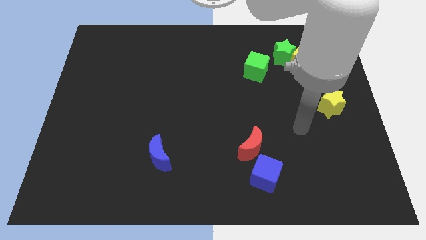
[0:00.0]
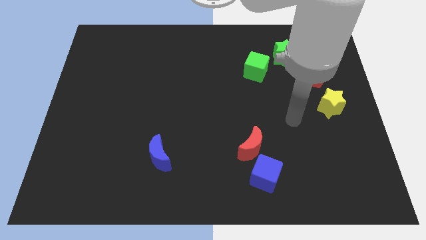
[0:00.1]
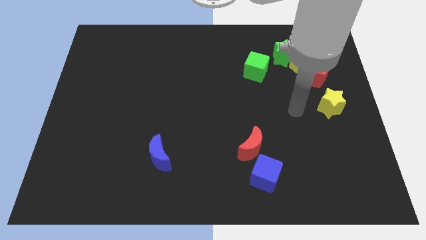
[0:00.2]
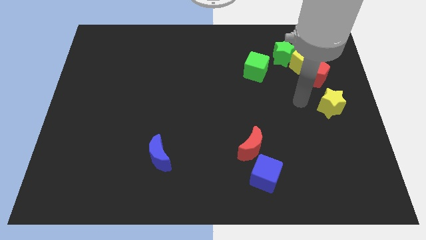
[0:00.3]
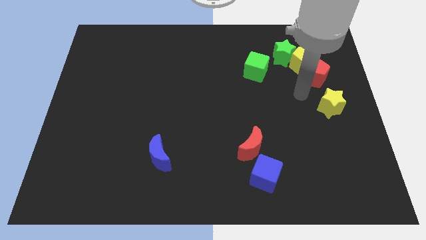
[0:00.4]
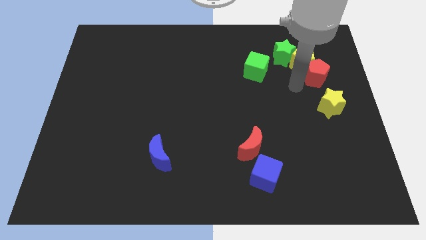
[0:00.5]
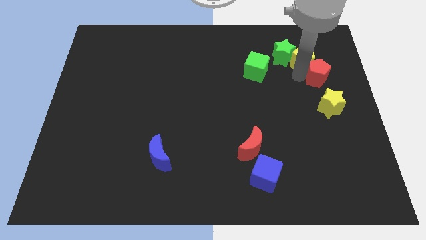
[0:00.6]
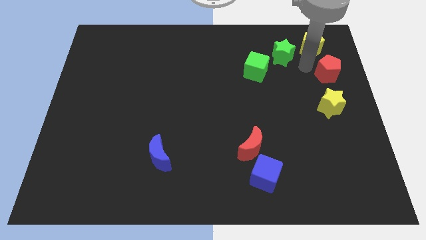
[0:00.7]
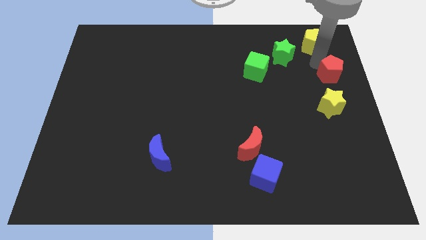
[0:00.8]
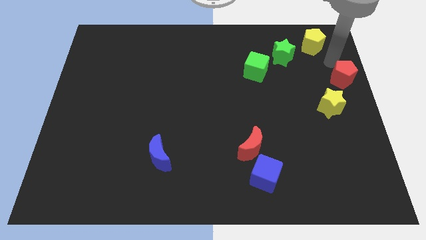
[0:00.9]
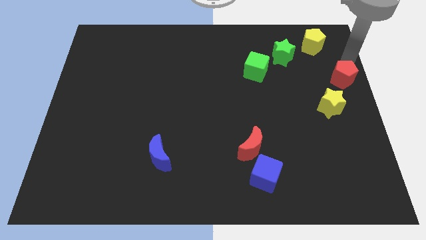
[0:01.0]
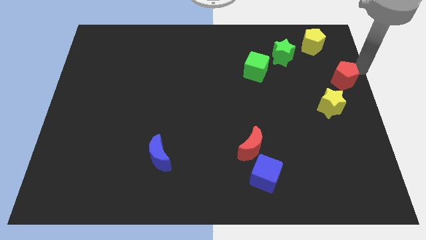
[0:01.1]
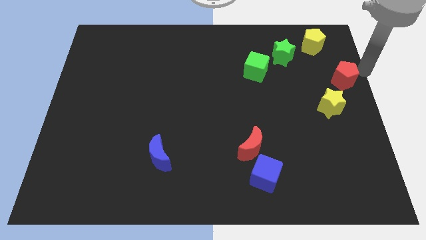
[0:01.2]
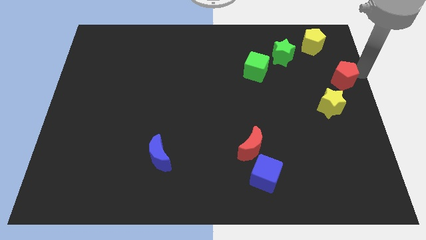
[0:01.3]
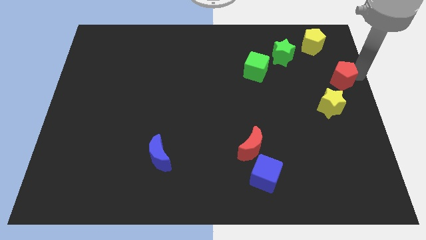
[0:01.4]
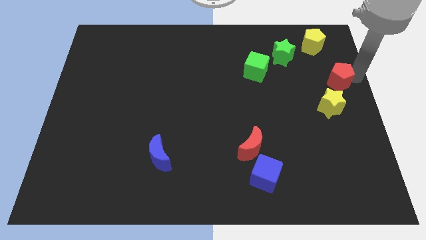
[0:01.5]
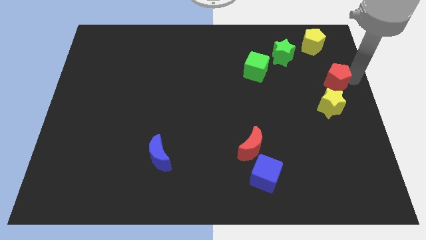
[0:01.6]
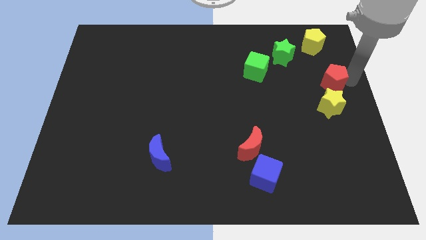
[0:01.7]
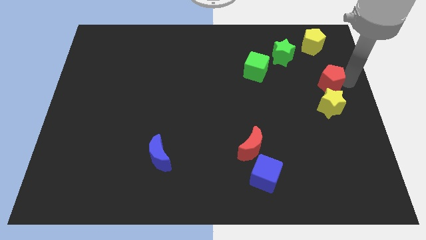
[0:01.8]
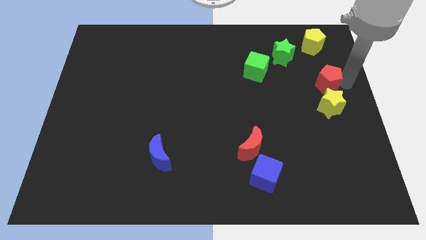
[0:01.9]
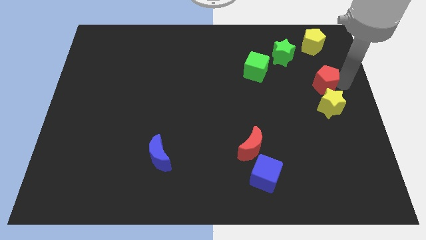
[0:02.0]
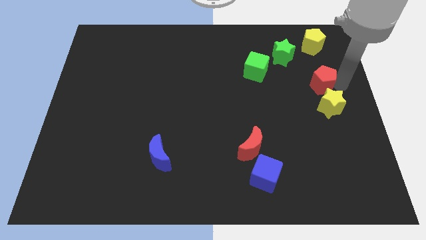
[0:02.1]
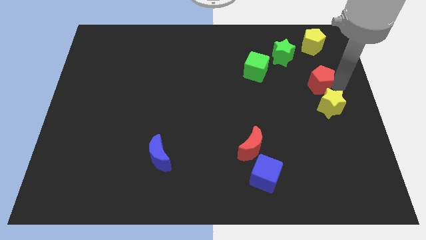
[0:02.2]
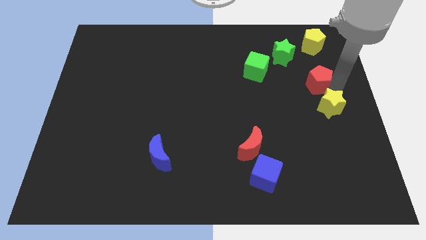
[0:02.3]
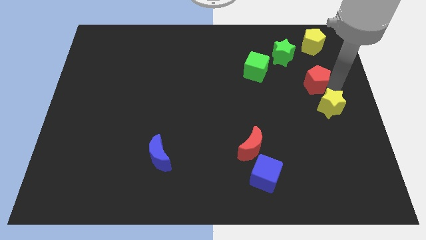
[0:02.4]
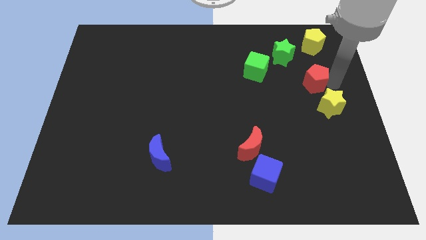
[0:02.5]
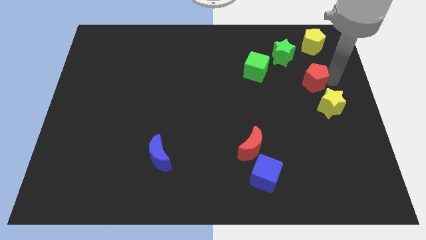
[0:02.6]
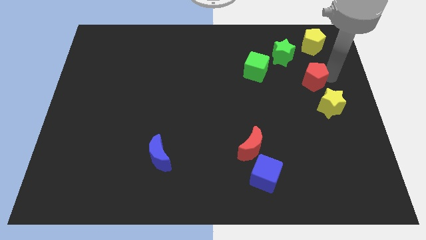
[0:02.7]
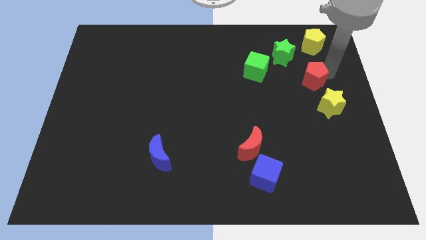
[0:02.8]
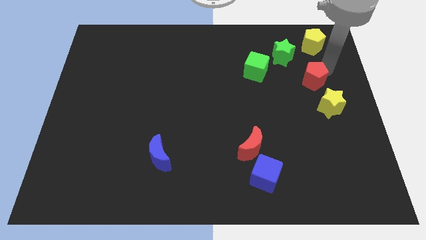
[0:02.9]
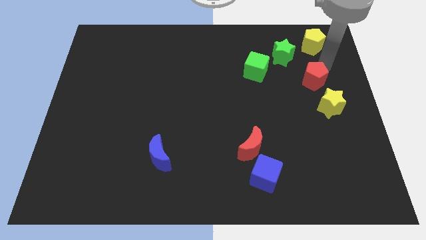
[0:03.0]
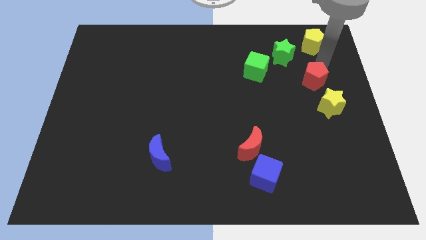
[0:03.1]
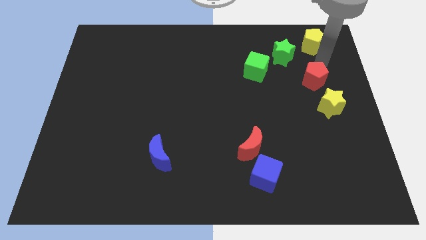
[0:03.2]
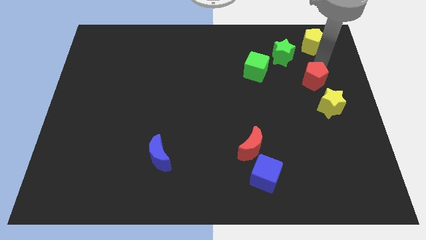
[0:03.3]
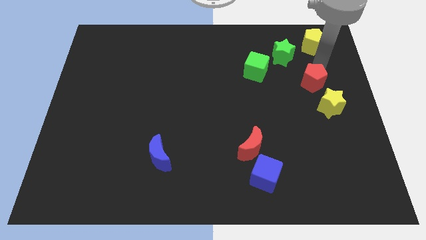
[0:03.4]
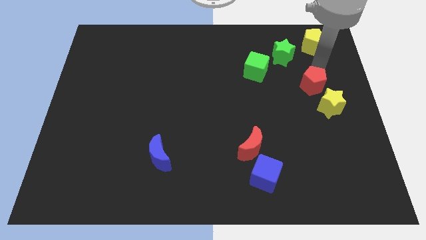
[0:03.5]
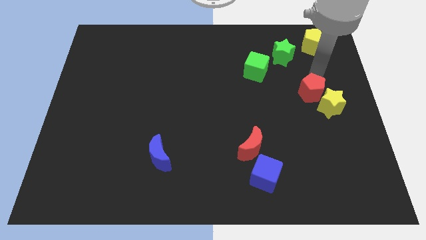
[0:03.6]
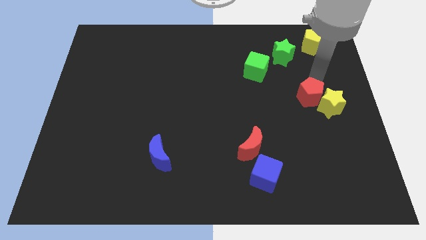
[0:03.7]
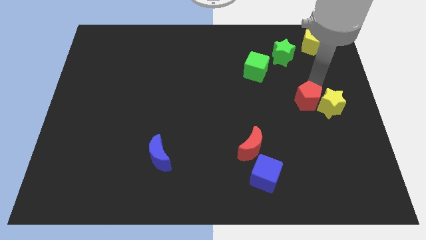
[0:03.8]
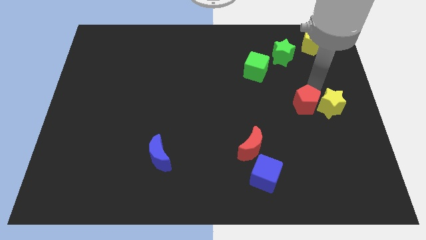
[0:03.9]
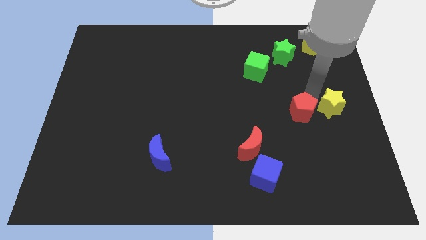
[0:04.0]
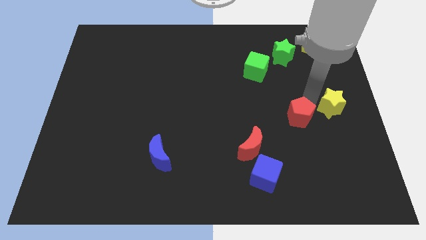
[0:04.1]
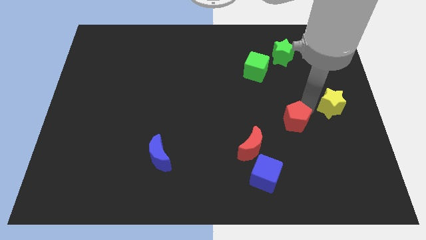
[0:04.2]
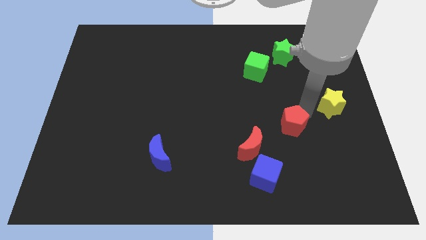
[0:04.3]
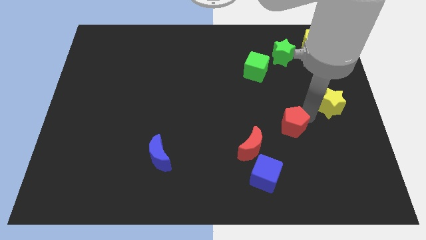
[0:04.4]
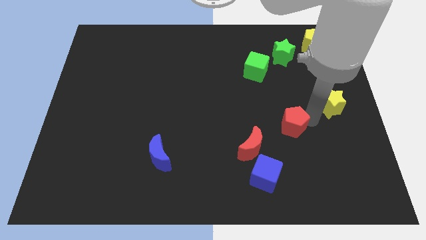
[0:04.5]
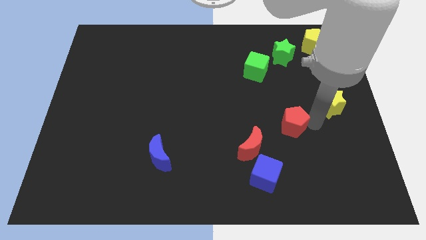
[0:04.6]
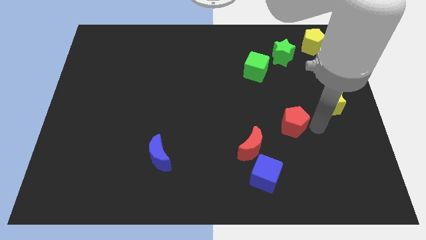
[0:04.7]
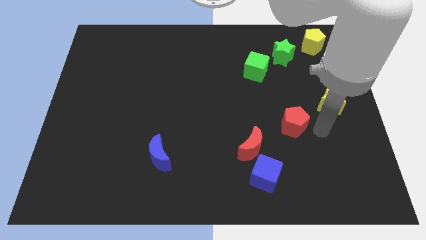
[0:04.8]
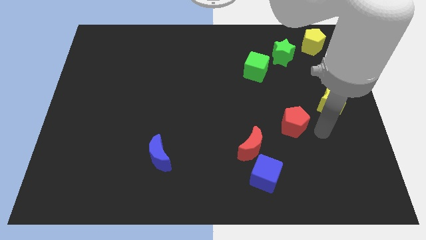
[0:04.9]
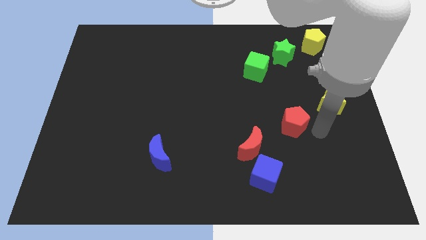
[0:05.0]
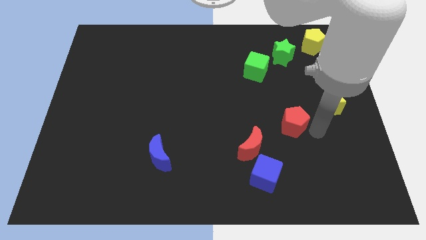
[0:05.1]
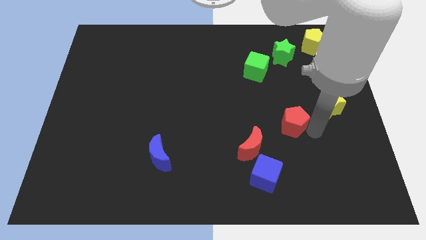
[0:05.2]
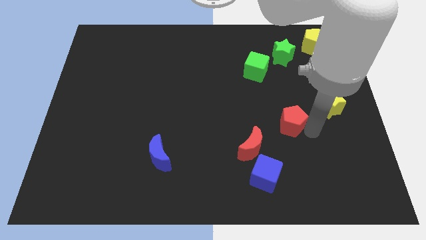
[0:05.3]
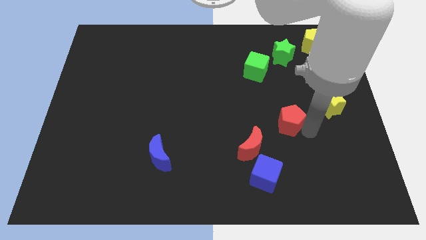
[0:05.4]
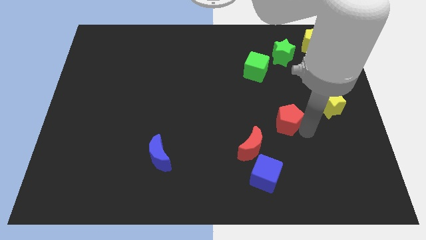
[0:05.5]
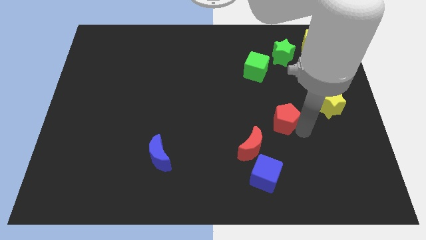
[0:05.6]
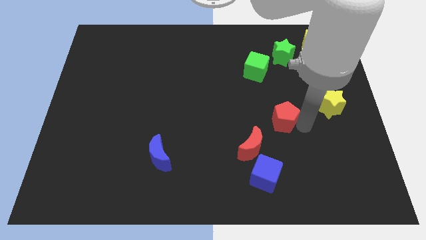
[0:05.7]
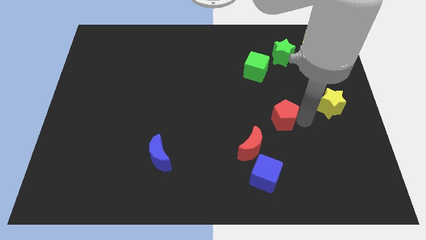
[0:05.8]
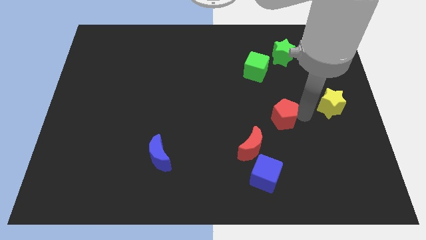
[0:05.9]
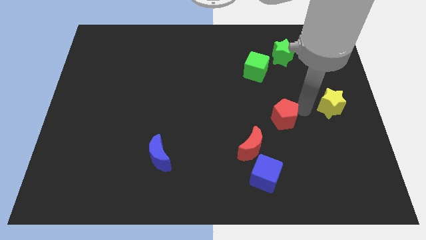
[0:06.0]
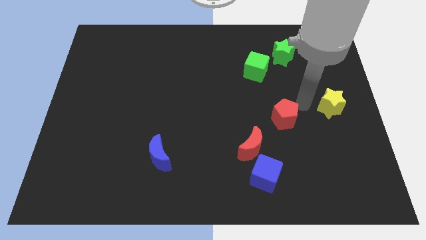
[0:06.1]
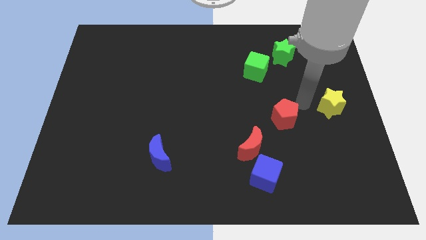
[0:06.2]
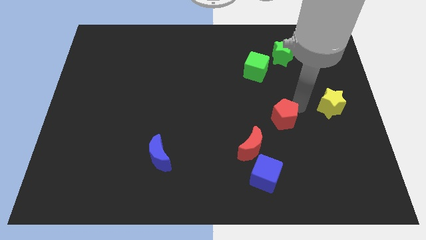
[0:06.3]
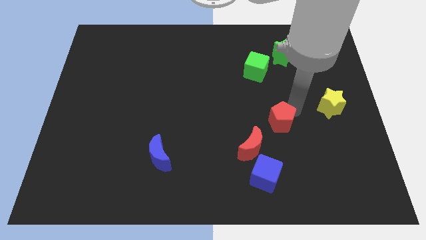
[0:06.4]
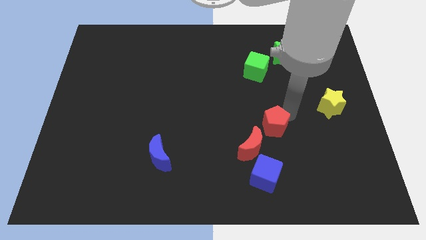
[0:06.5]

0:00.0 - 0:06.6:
put the red pentagon above the blue cube

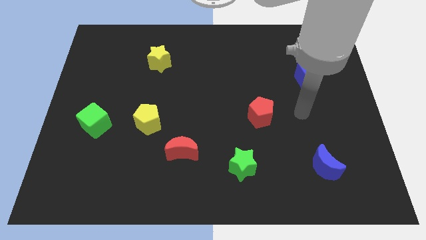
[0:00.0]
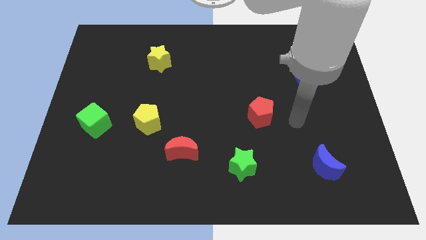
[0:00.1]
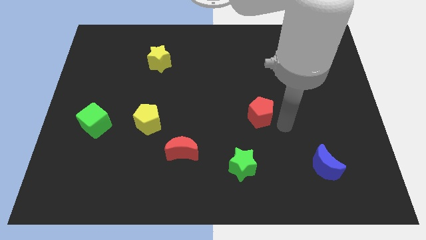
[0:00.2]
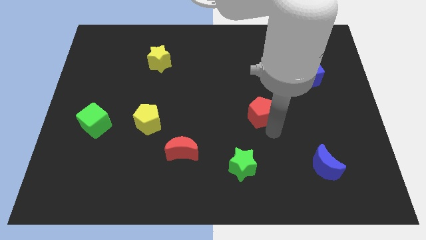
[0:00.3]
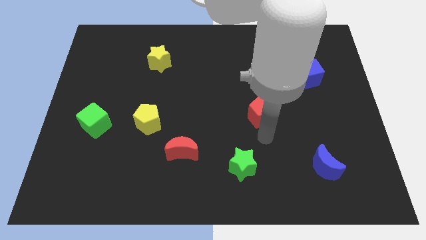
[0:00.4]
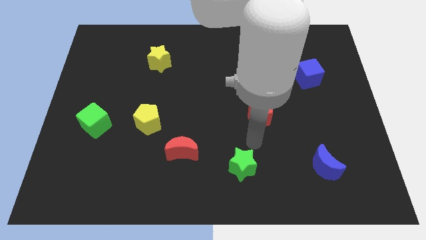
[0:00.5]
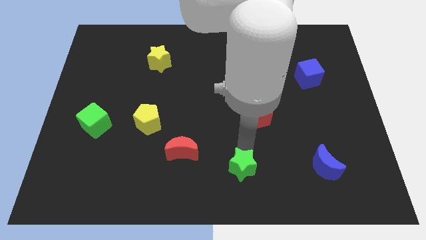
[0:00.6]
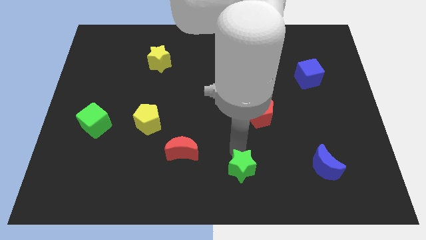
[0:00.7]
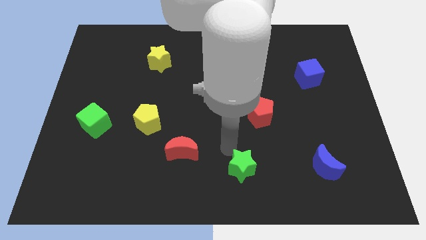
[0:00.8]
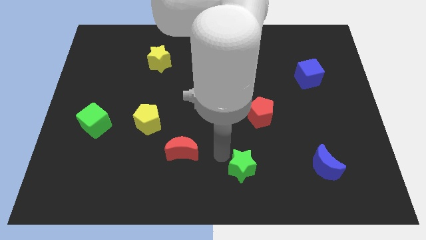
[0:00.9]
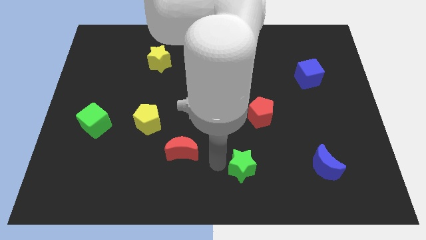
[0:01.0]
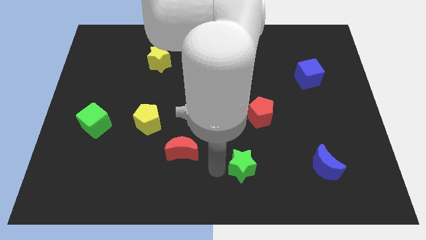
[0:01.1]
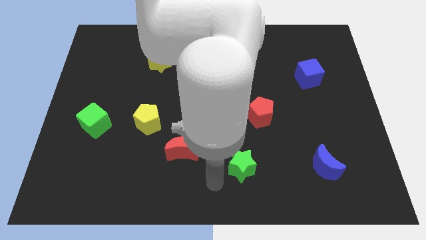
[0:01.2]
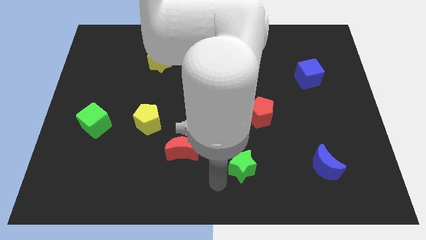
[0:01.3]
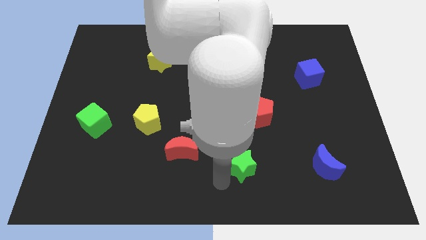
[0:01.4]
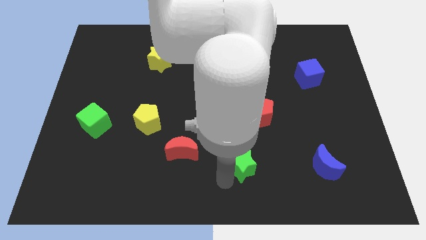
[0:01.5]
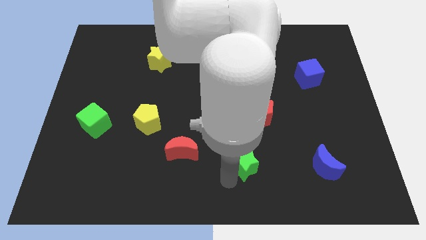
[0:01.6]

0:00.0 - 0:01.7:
slide the green star below the red pentagon
